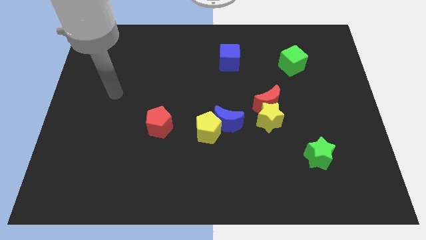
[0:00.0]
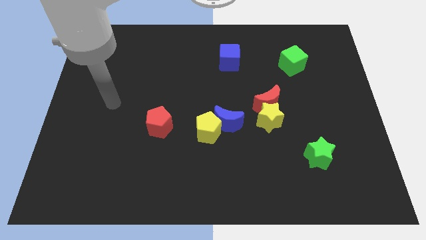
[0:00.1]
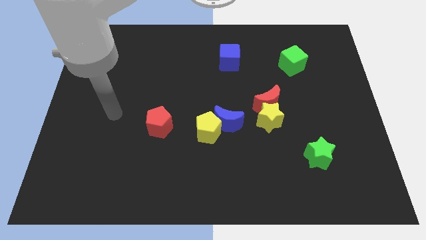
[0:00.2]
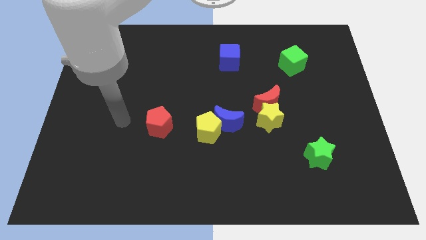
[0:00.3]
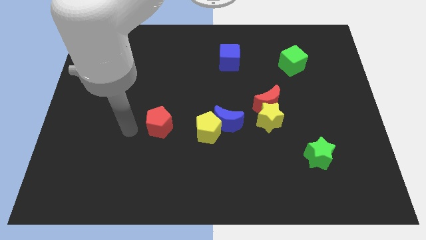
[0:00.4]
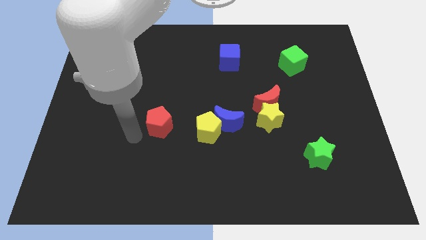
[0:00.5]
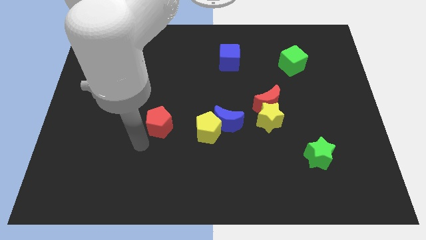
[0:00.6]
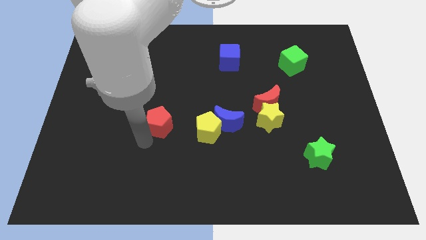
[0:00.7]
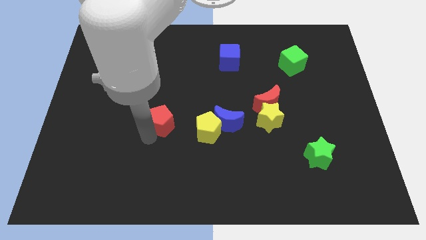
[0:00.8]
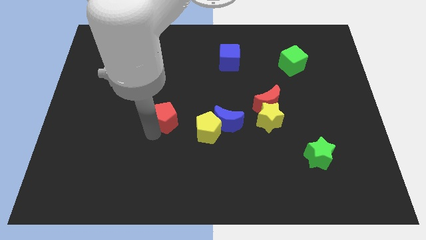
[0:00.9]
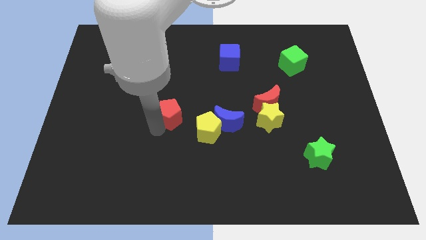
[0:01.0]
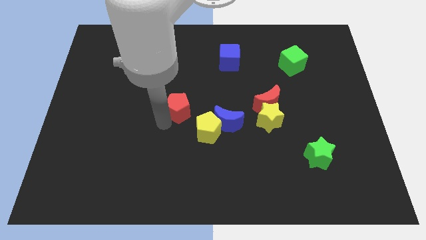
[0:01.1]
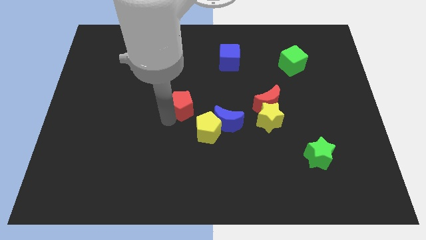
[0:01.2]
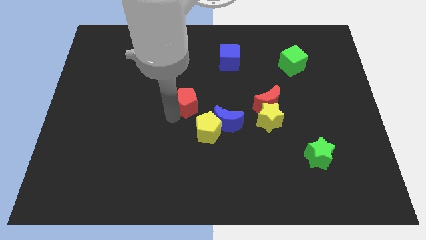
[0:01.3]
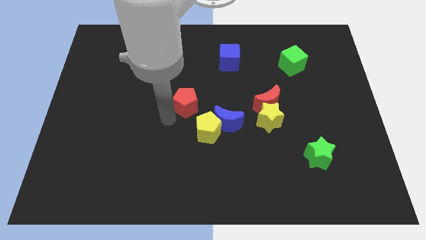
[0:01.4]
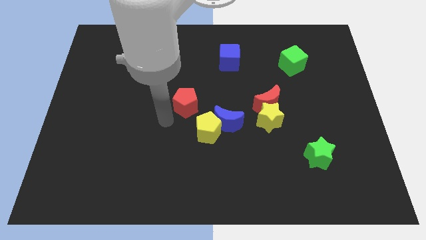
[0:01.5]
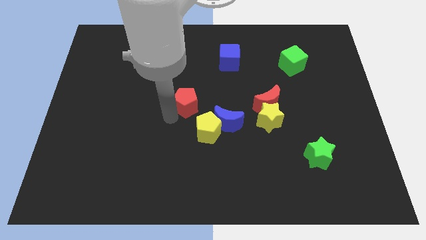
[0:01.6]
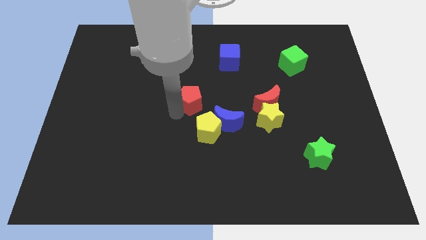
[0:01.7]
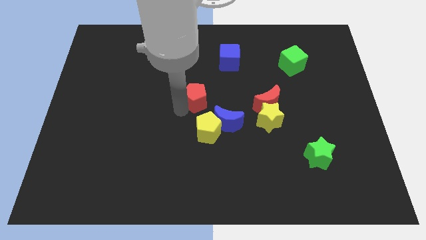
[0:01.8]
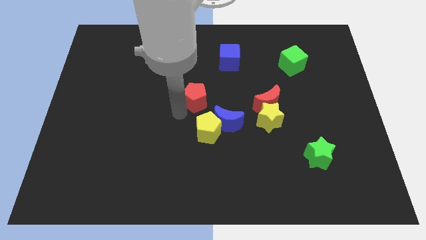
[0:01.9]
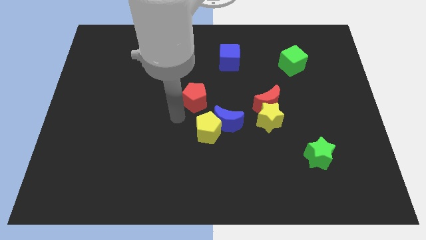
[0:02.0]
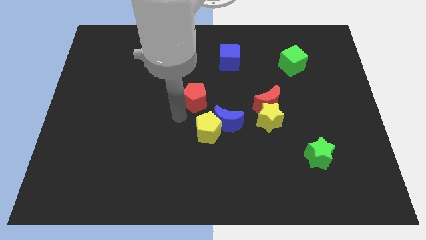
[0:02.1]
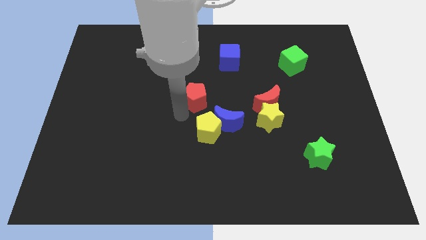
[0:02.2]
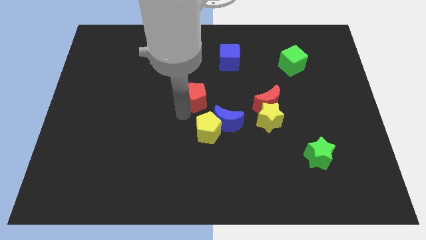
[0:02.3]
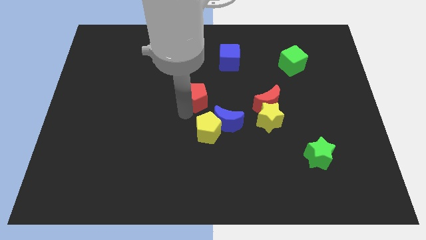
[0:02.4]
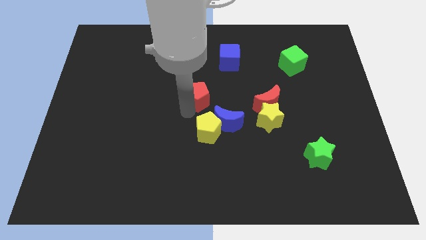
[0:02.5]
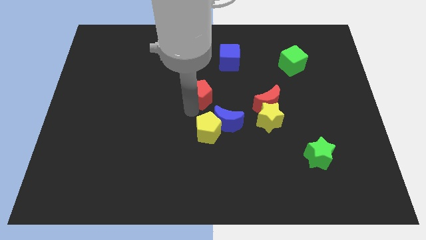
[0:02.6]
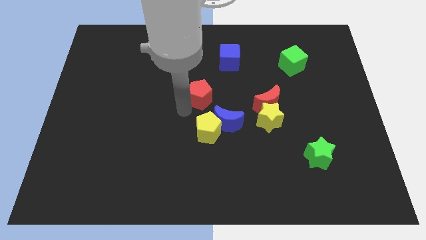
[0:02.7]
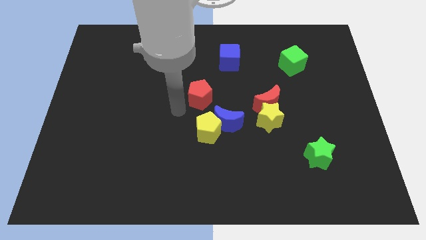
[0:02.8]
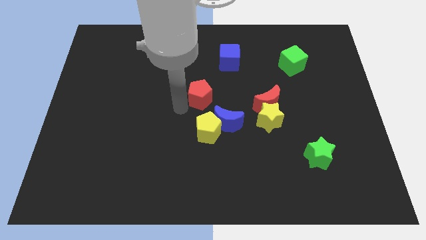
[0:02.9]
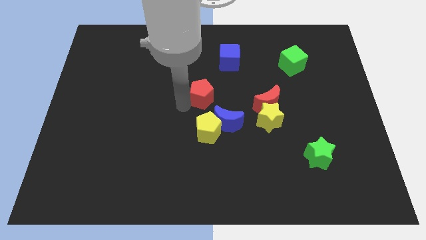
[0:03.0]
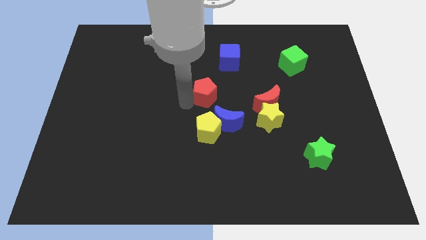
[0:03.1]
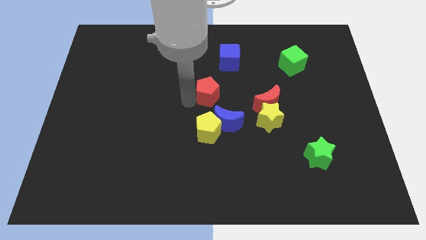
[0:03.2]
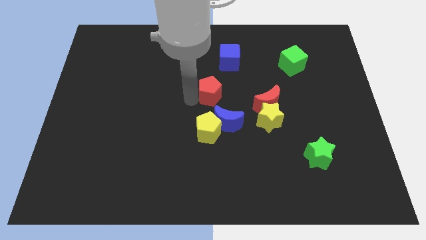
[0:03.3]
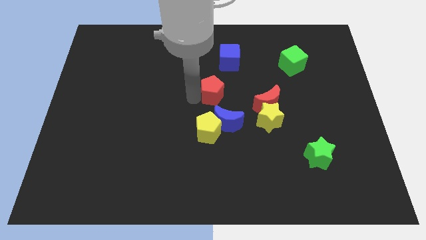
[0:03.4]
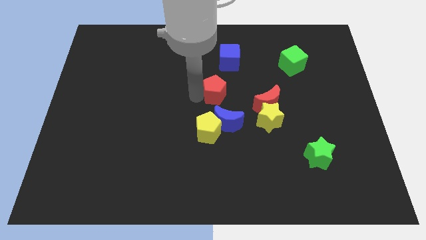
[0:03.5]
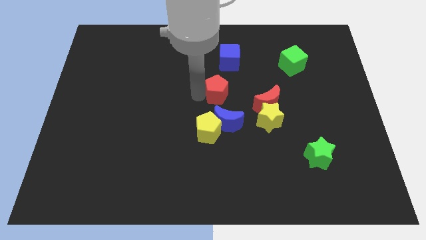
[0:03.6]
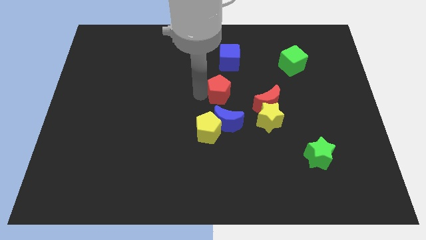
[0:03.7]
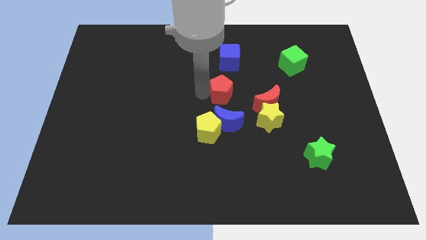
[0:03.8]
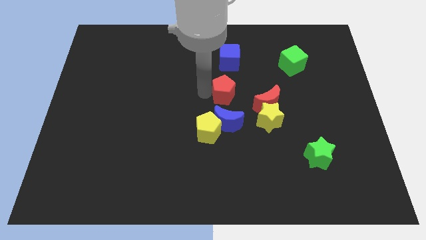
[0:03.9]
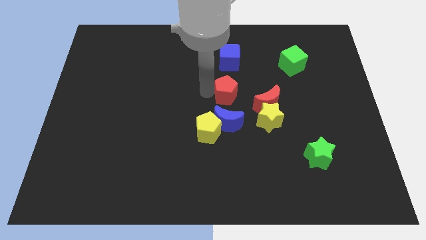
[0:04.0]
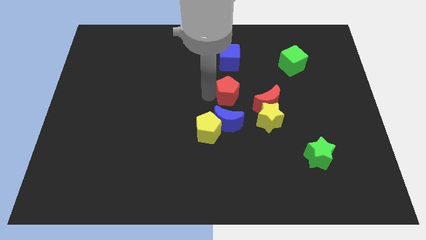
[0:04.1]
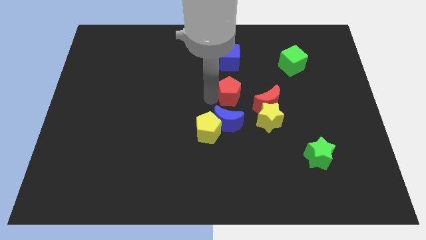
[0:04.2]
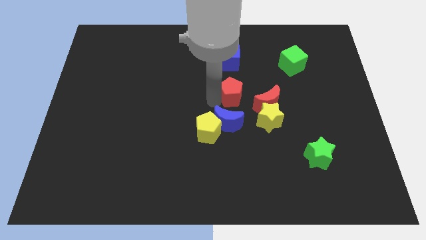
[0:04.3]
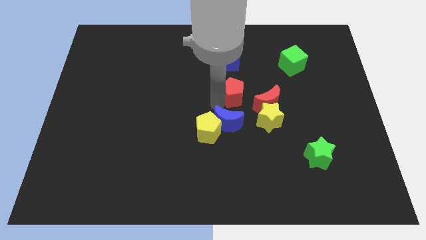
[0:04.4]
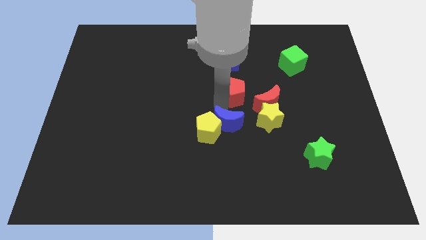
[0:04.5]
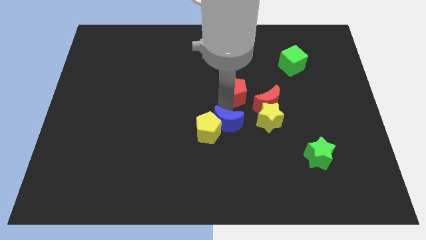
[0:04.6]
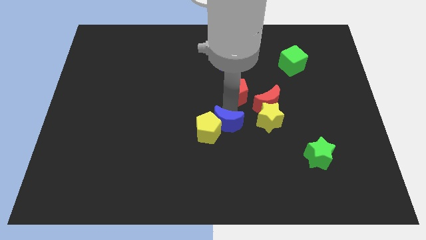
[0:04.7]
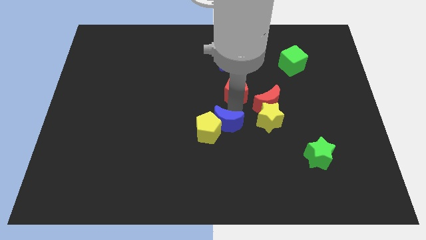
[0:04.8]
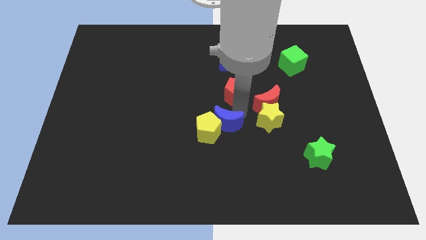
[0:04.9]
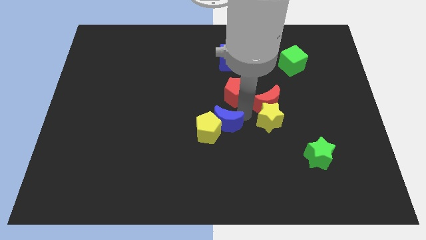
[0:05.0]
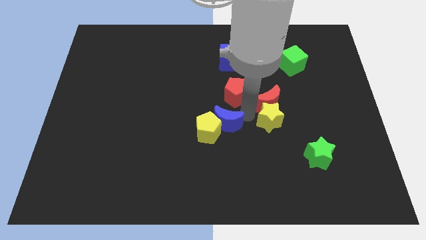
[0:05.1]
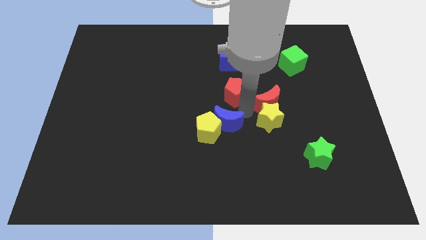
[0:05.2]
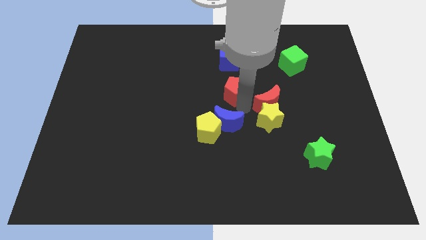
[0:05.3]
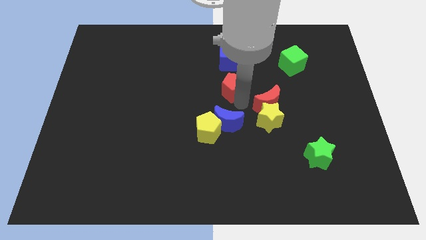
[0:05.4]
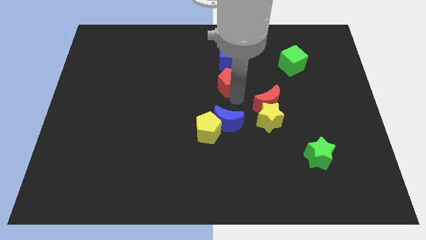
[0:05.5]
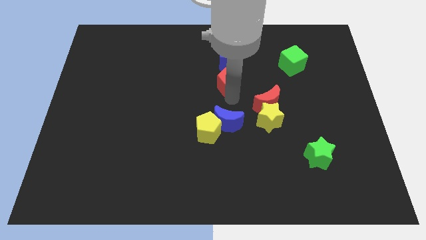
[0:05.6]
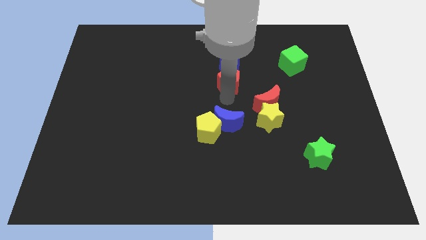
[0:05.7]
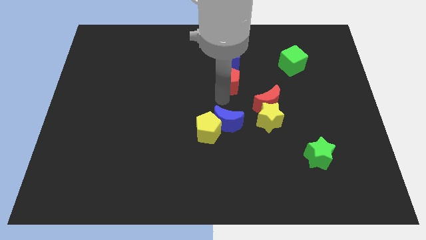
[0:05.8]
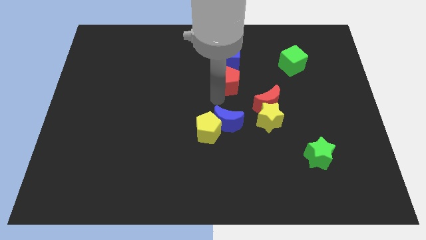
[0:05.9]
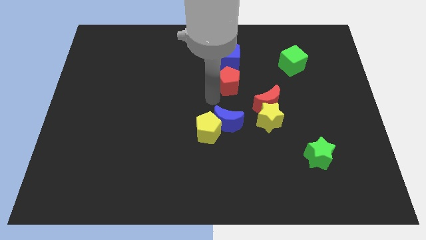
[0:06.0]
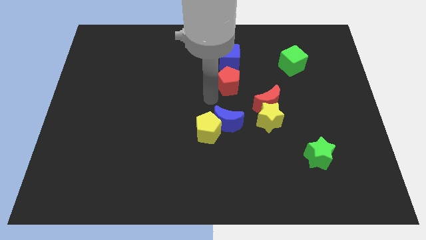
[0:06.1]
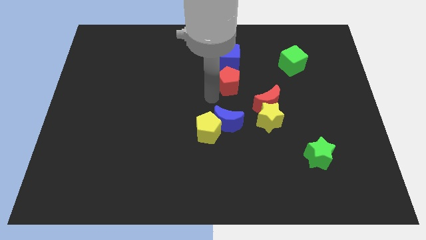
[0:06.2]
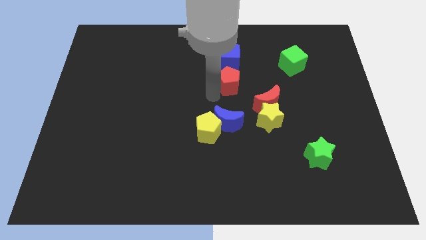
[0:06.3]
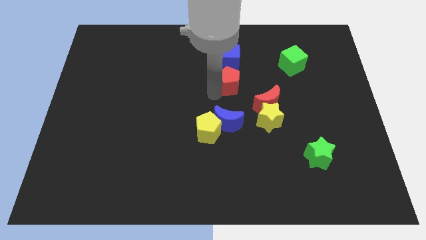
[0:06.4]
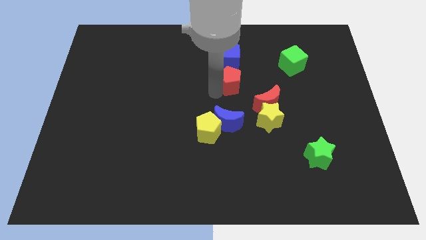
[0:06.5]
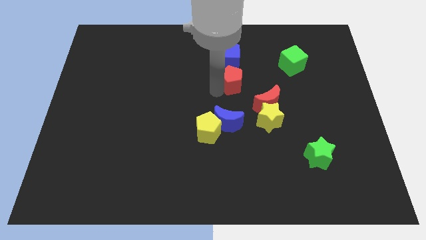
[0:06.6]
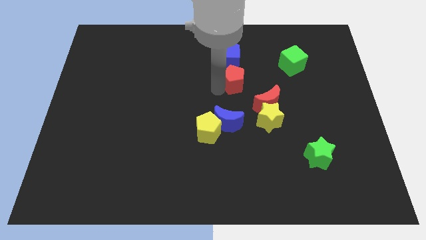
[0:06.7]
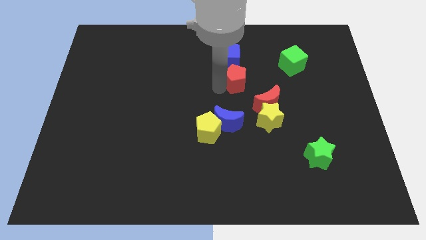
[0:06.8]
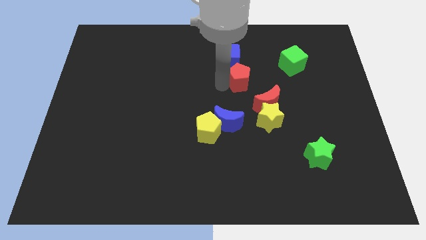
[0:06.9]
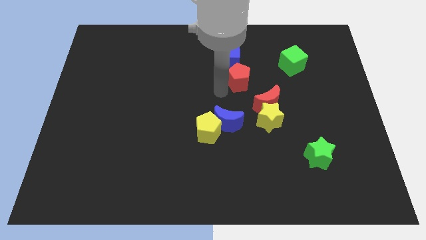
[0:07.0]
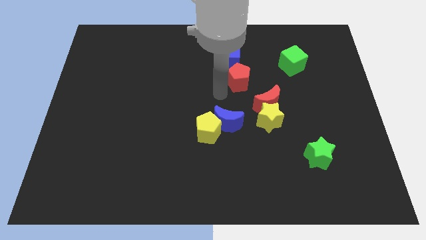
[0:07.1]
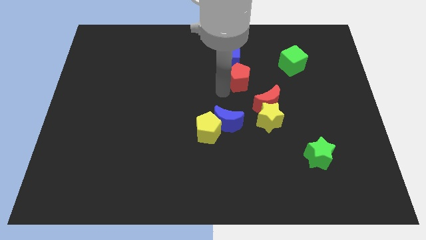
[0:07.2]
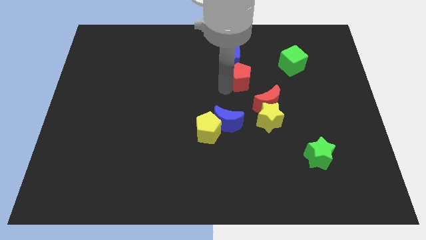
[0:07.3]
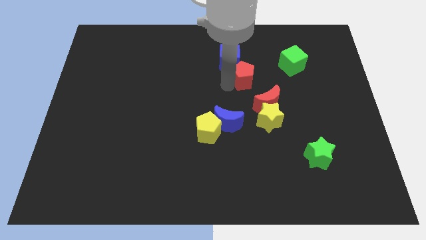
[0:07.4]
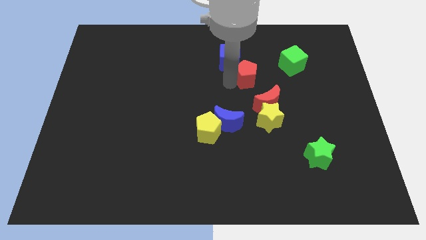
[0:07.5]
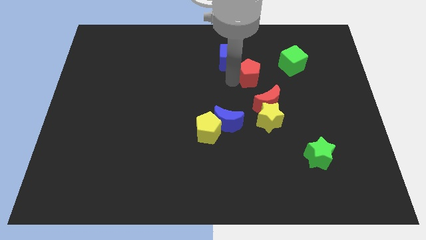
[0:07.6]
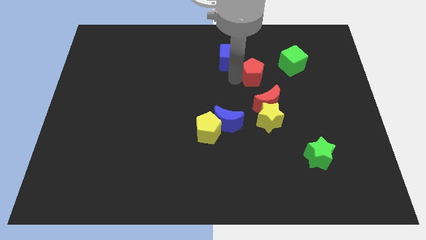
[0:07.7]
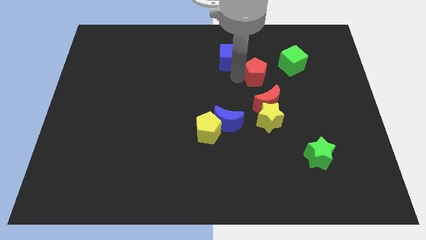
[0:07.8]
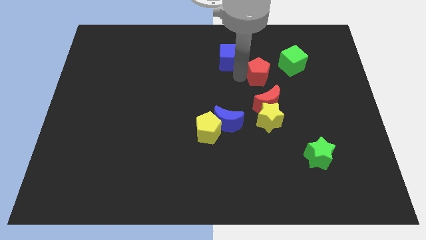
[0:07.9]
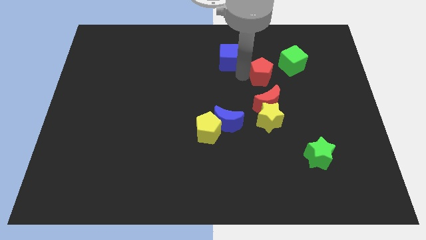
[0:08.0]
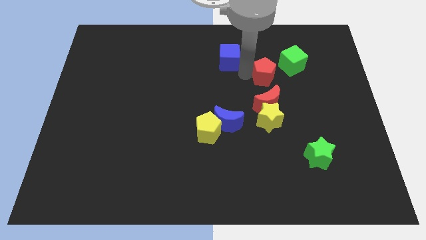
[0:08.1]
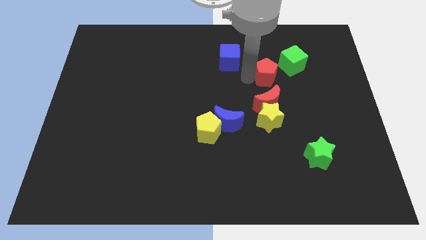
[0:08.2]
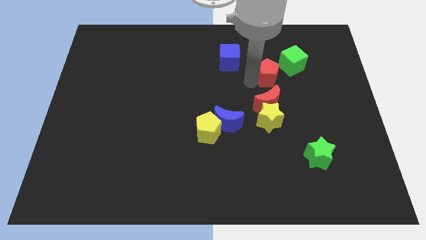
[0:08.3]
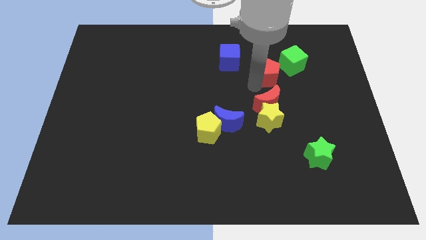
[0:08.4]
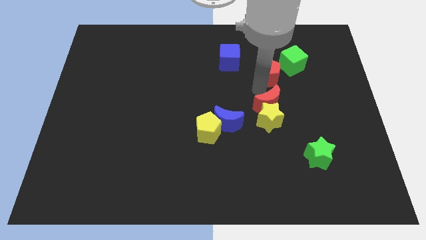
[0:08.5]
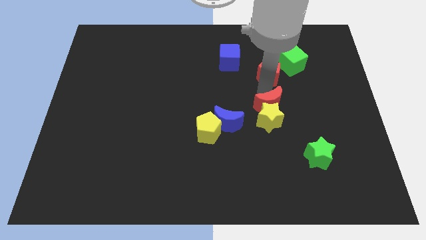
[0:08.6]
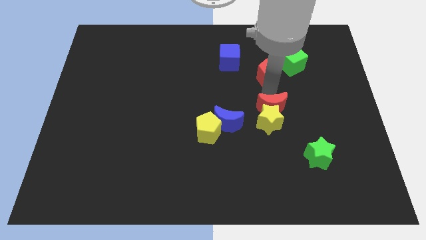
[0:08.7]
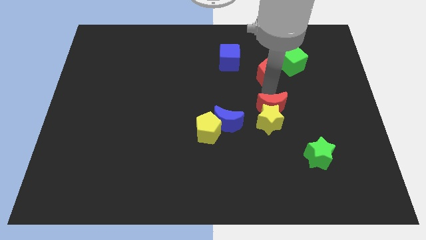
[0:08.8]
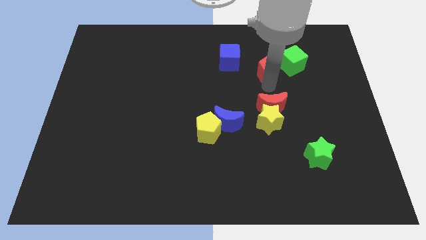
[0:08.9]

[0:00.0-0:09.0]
move the red pentagon just right of the blue cube
